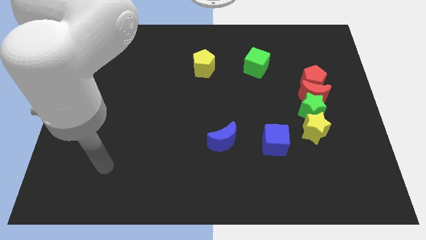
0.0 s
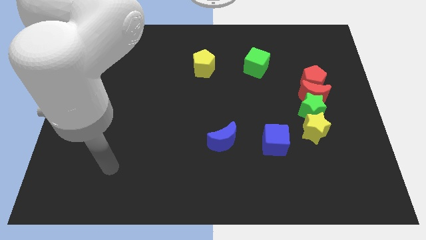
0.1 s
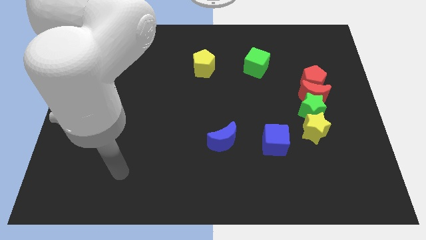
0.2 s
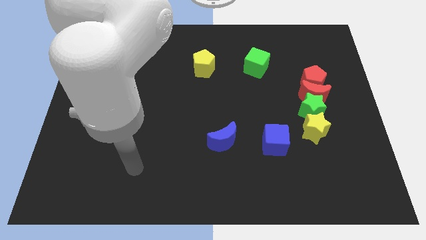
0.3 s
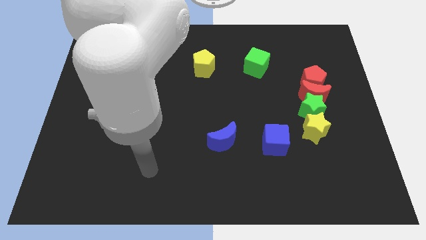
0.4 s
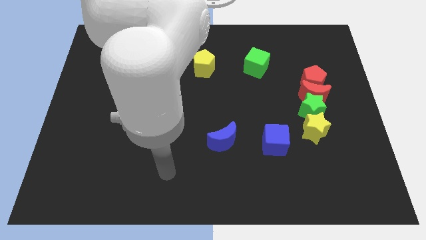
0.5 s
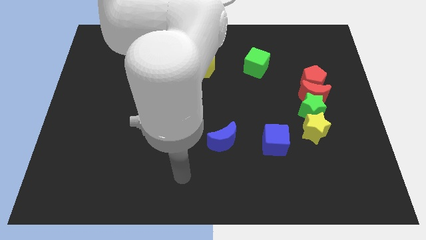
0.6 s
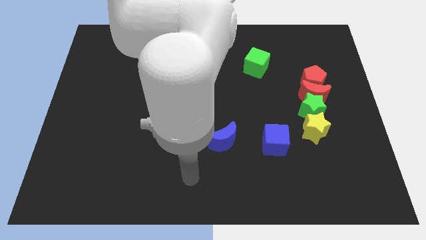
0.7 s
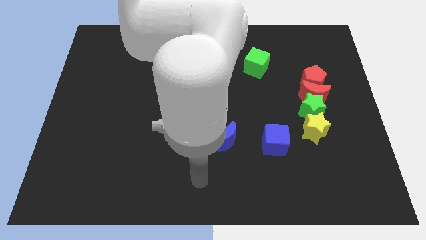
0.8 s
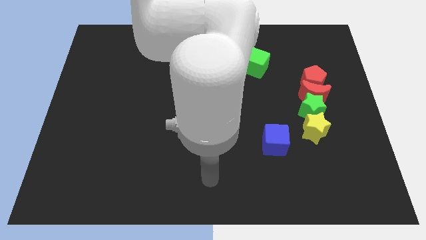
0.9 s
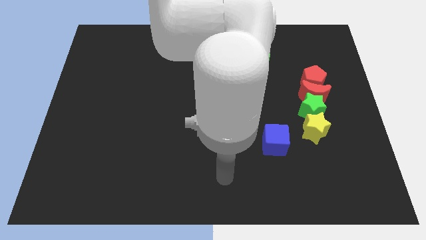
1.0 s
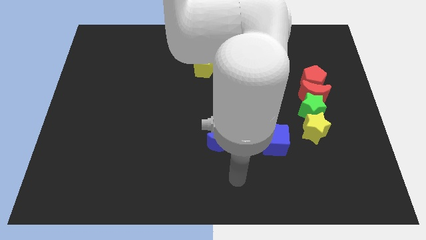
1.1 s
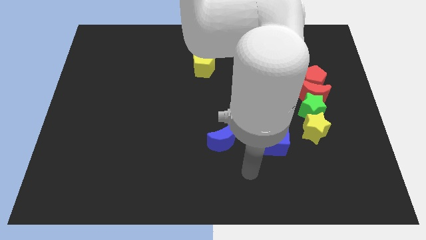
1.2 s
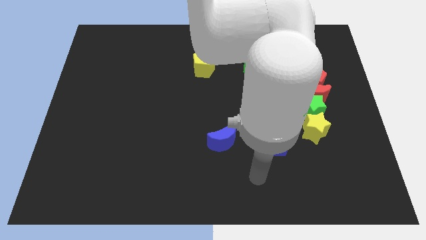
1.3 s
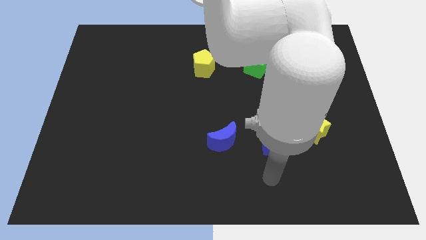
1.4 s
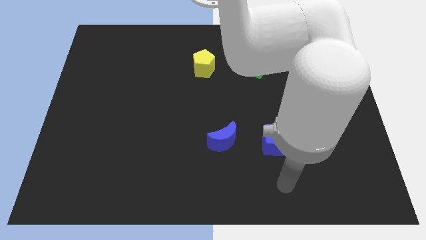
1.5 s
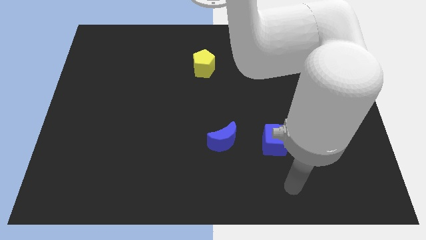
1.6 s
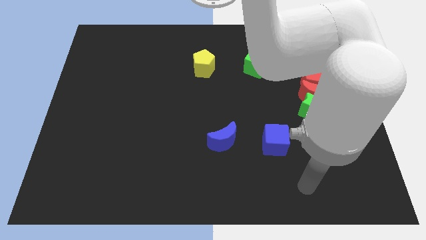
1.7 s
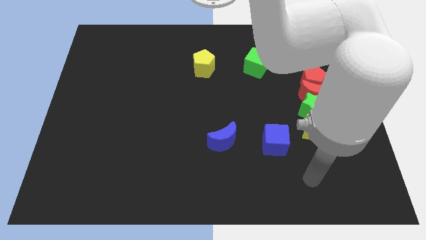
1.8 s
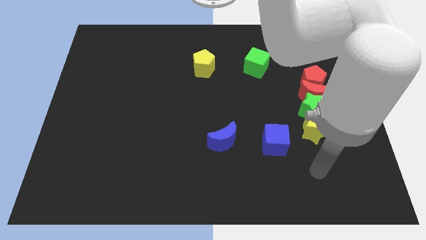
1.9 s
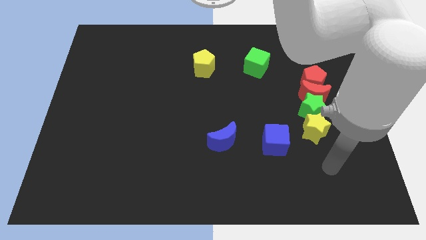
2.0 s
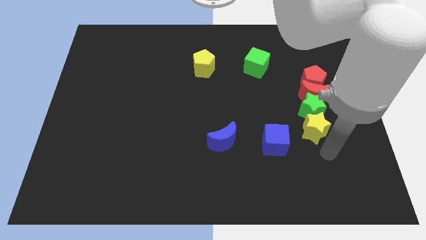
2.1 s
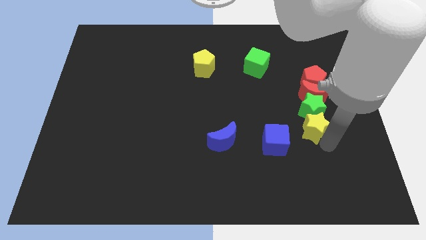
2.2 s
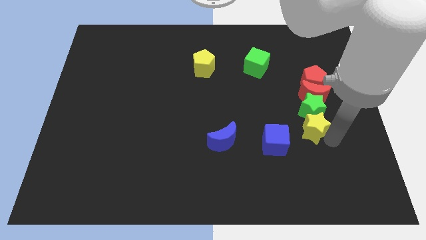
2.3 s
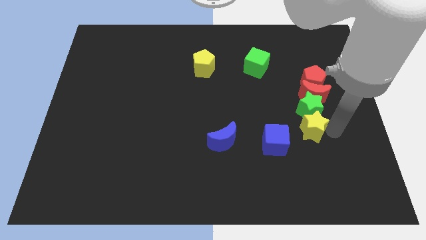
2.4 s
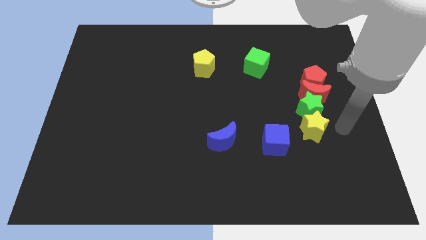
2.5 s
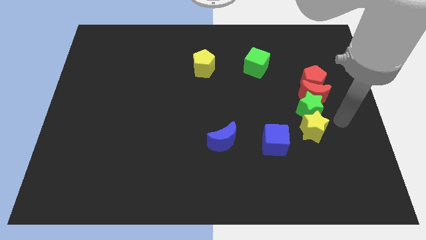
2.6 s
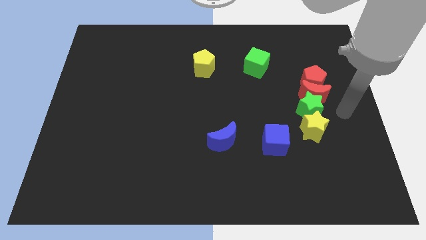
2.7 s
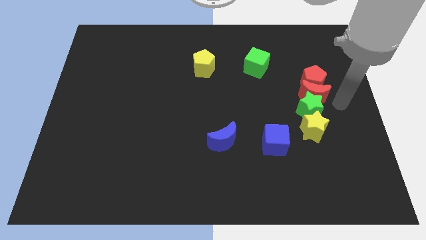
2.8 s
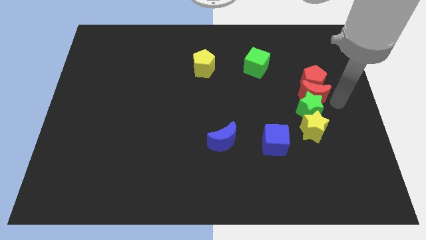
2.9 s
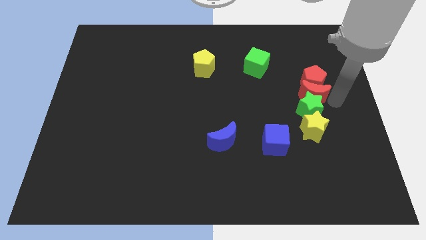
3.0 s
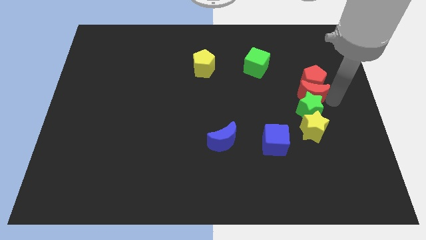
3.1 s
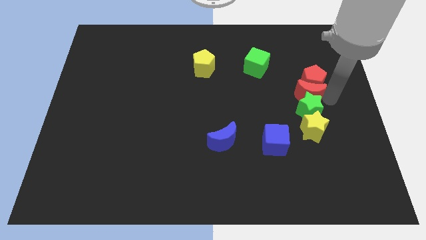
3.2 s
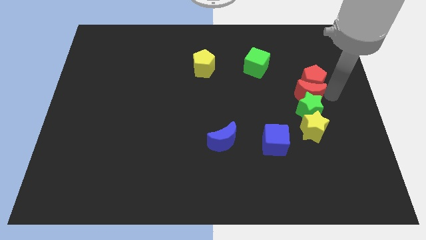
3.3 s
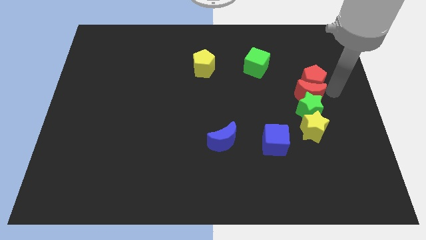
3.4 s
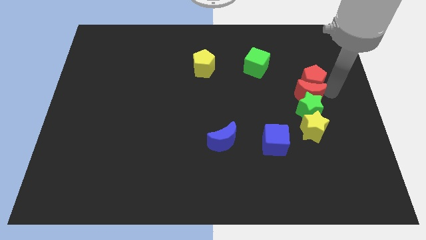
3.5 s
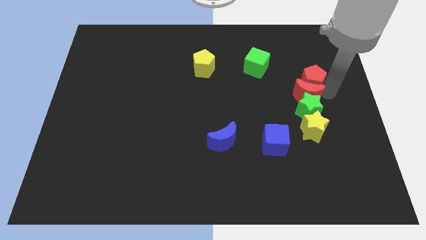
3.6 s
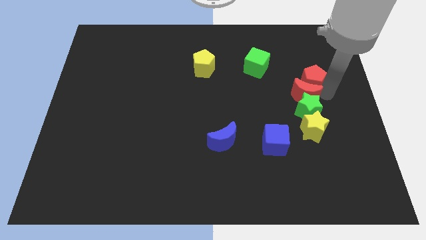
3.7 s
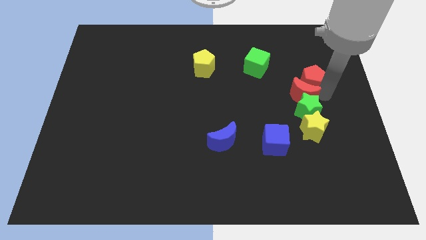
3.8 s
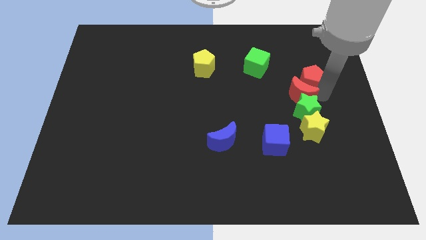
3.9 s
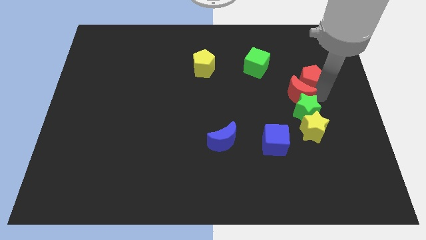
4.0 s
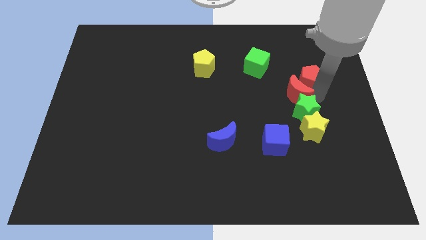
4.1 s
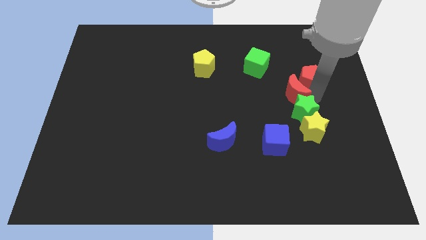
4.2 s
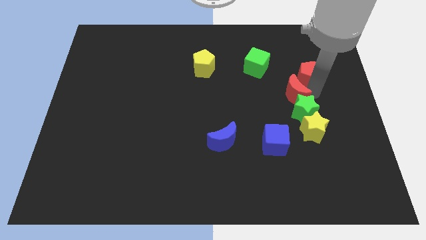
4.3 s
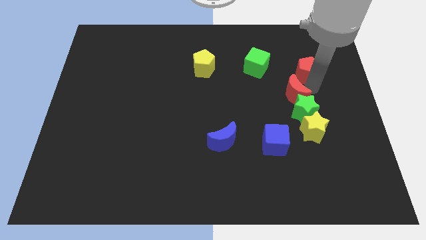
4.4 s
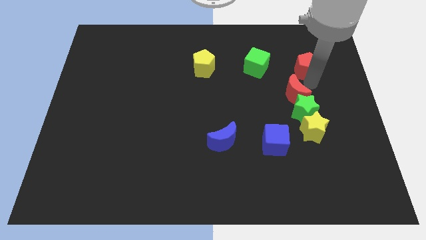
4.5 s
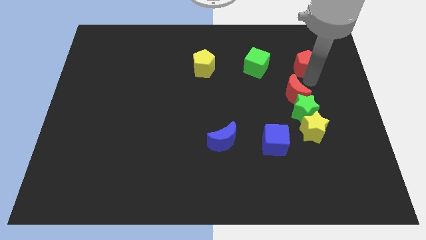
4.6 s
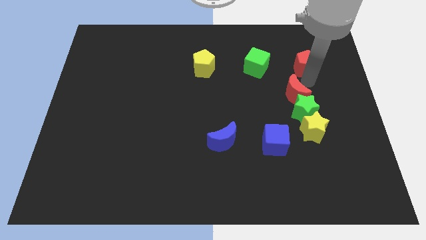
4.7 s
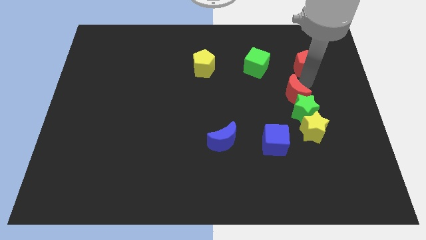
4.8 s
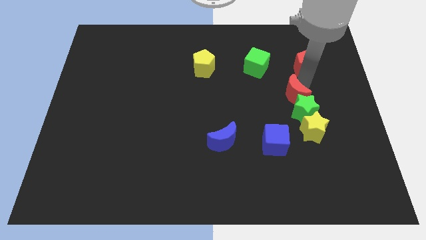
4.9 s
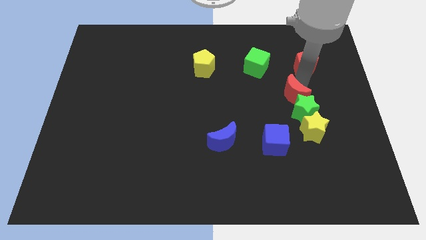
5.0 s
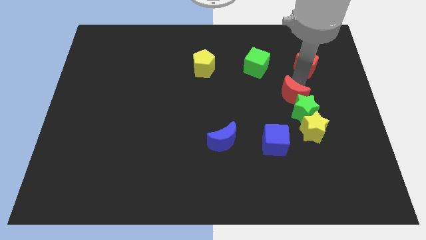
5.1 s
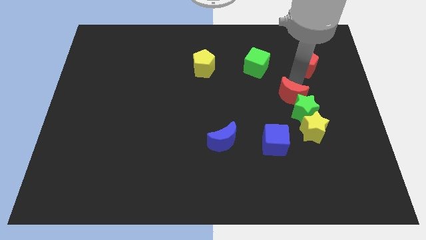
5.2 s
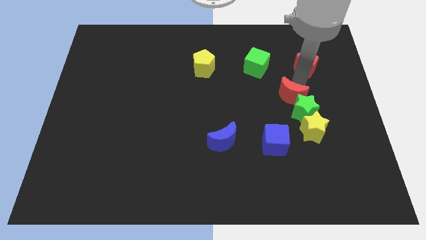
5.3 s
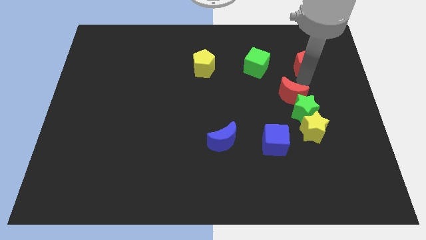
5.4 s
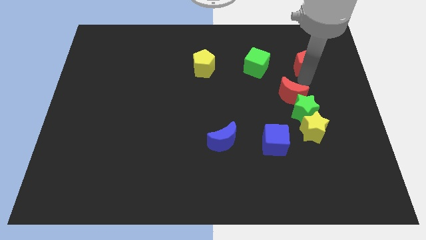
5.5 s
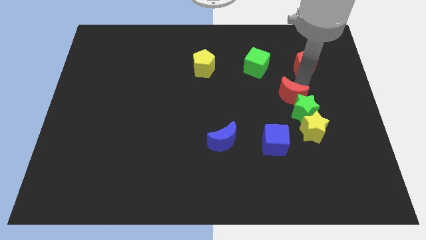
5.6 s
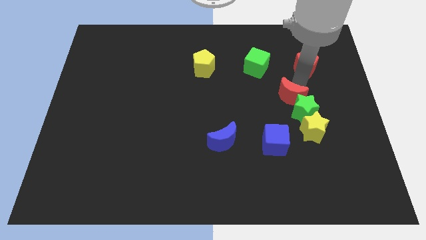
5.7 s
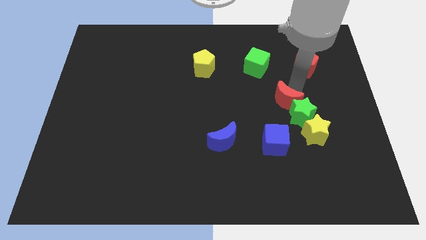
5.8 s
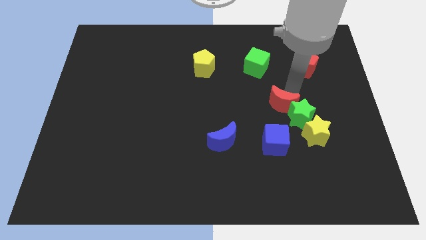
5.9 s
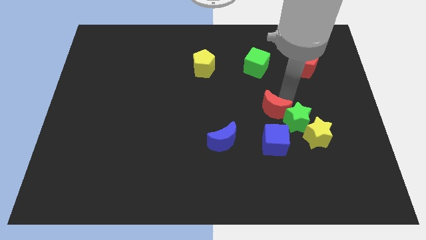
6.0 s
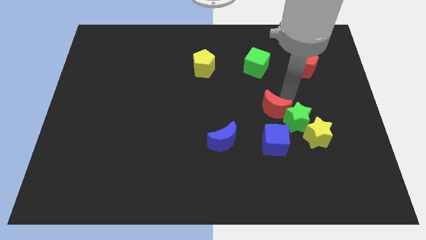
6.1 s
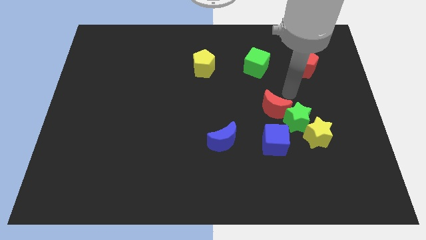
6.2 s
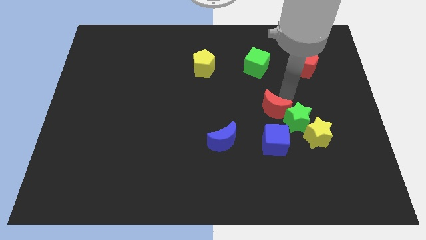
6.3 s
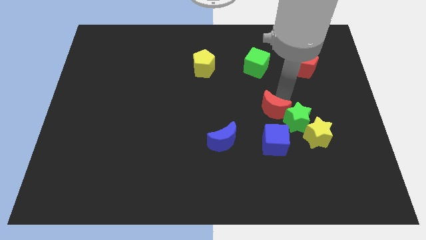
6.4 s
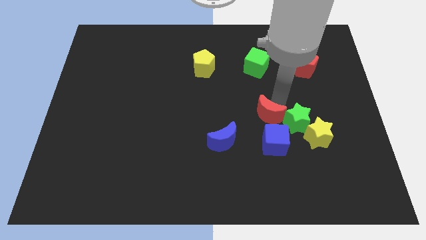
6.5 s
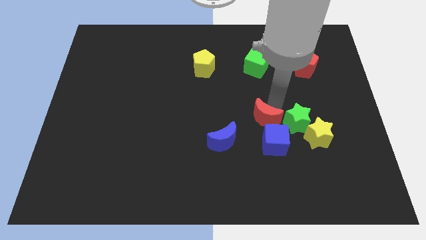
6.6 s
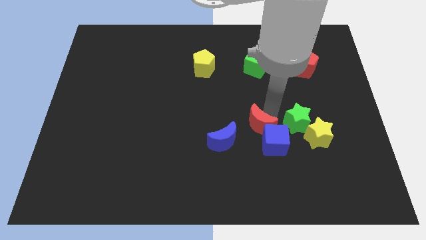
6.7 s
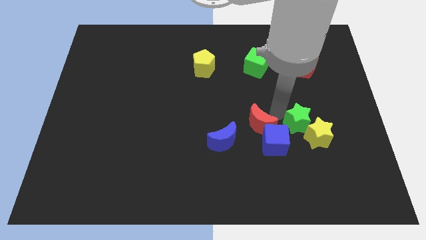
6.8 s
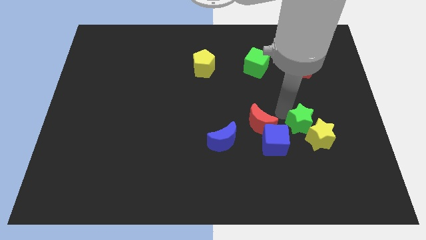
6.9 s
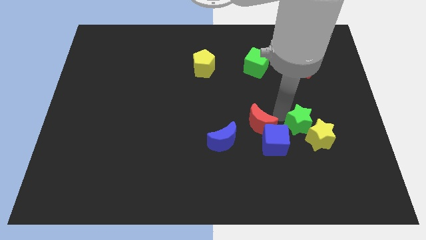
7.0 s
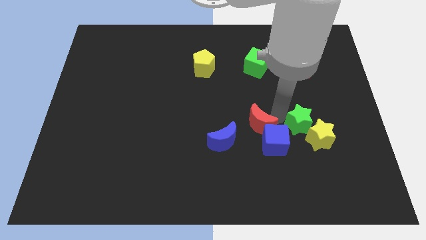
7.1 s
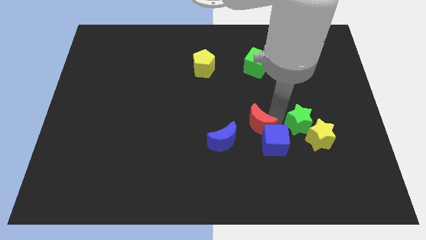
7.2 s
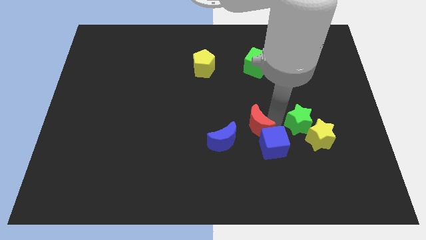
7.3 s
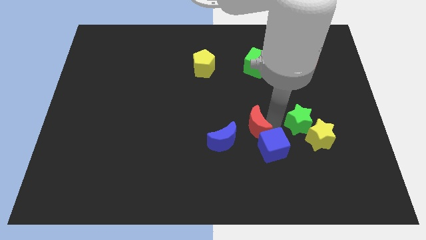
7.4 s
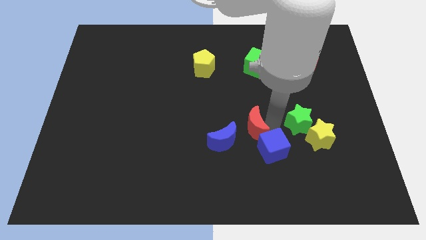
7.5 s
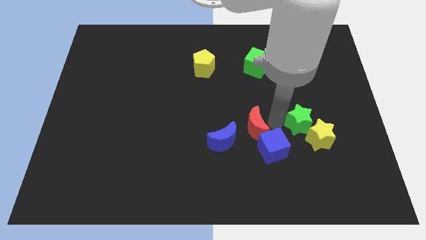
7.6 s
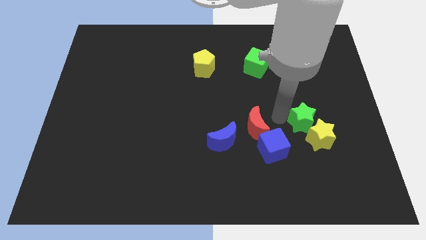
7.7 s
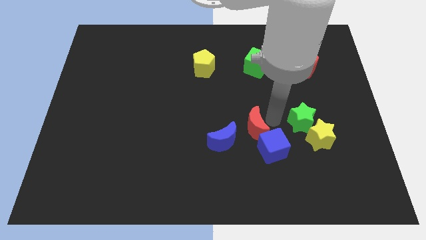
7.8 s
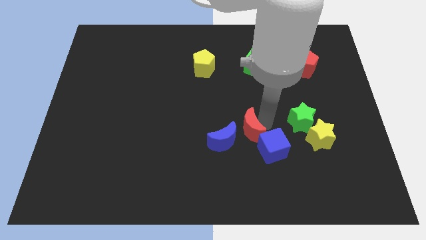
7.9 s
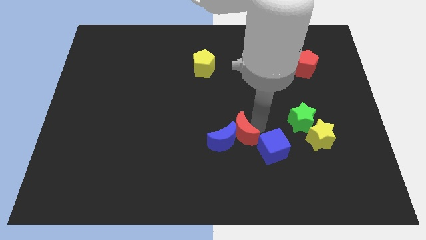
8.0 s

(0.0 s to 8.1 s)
move the red moon towards the blue moon
